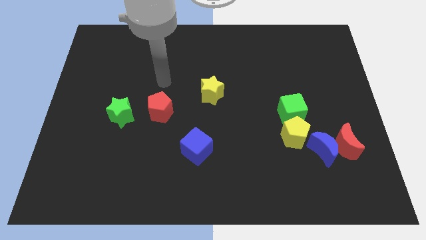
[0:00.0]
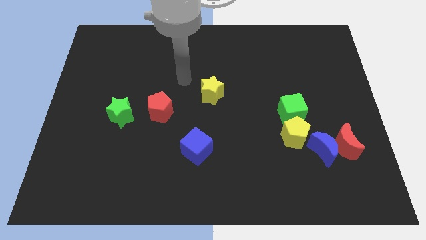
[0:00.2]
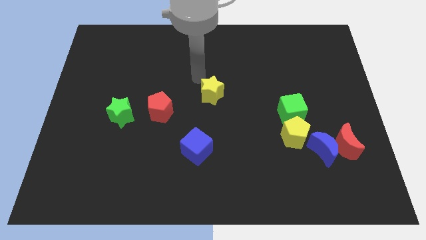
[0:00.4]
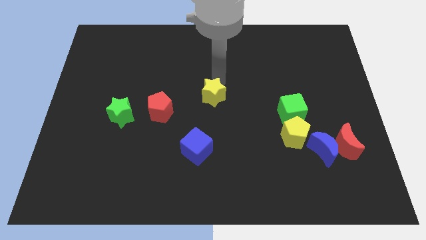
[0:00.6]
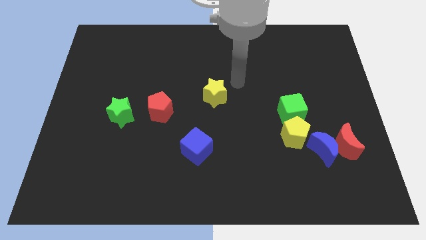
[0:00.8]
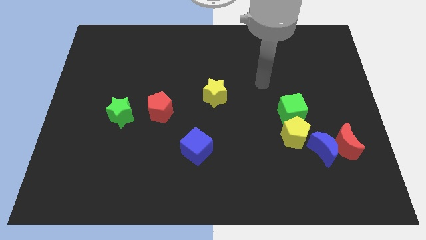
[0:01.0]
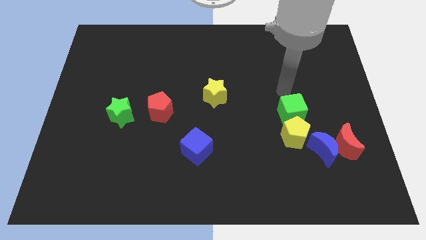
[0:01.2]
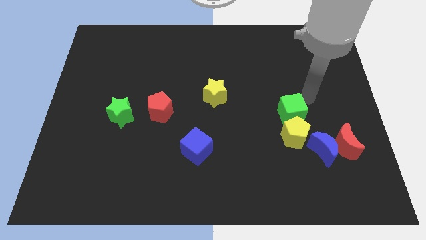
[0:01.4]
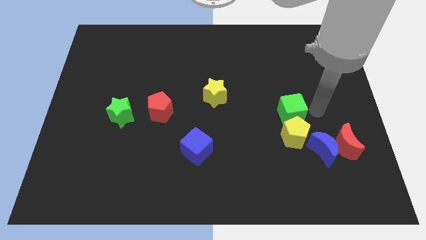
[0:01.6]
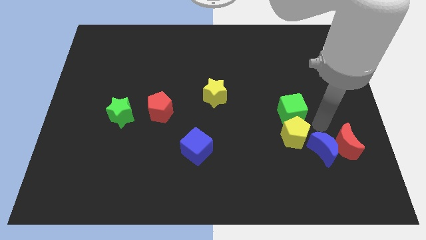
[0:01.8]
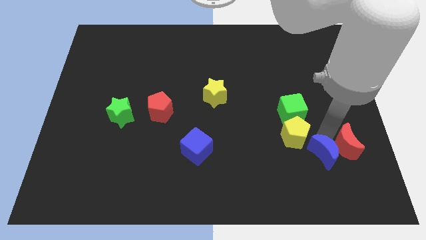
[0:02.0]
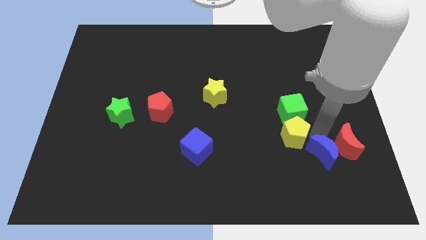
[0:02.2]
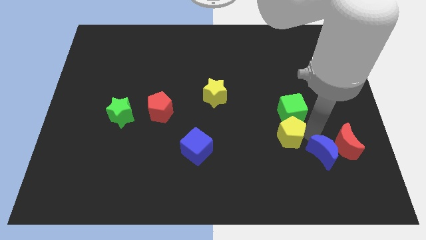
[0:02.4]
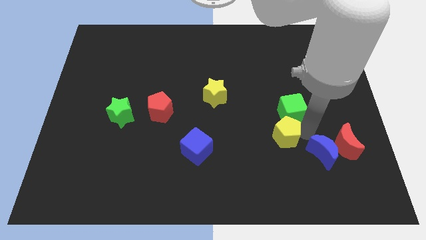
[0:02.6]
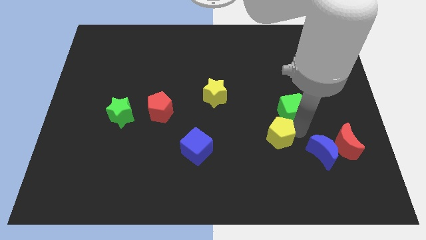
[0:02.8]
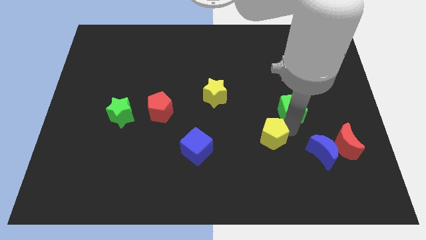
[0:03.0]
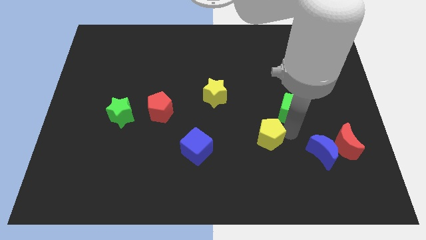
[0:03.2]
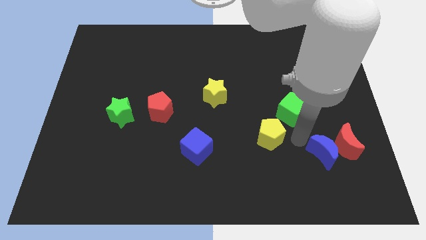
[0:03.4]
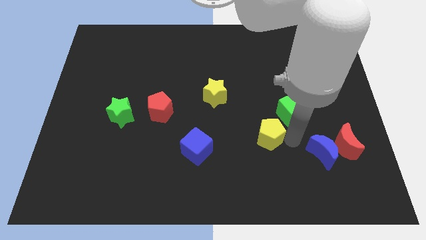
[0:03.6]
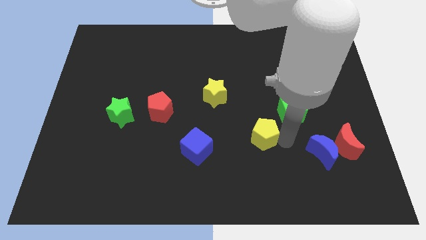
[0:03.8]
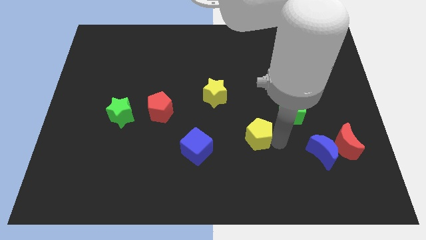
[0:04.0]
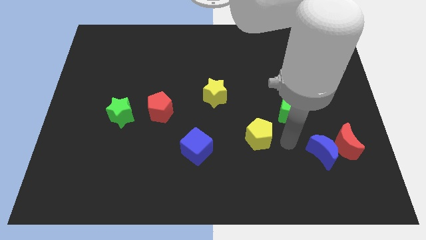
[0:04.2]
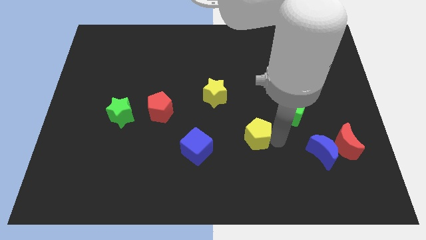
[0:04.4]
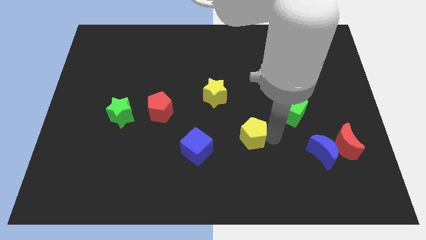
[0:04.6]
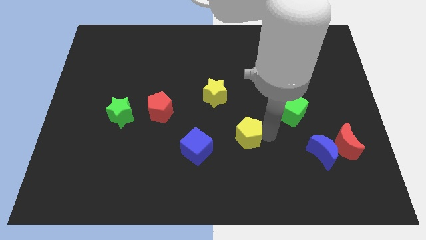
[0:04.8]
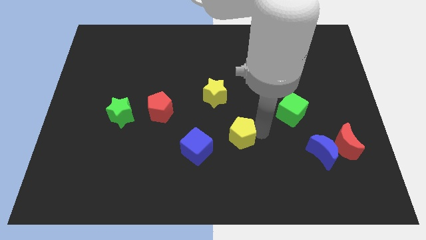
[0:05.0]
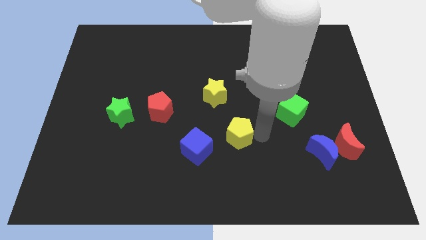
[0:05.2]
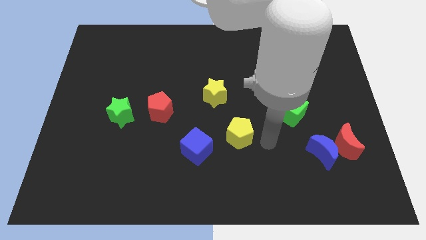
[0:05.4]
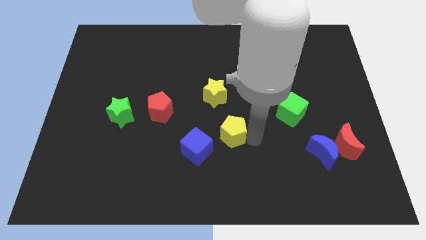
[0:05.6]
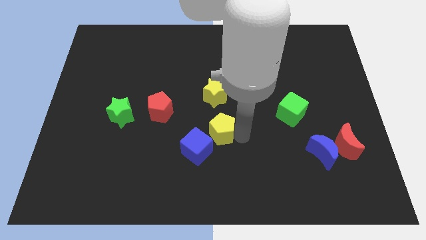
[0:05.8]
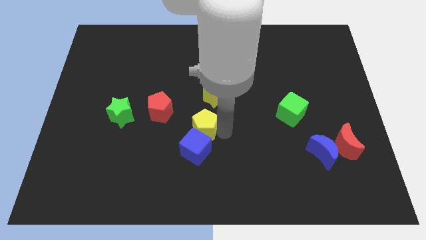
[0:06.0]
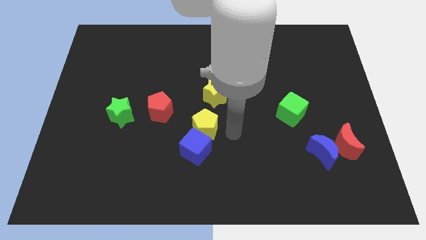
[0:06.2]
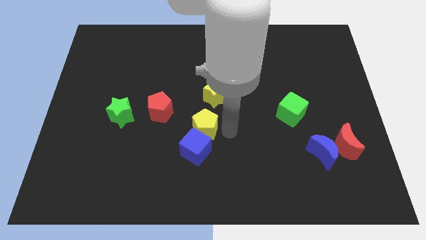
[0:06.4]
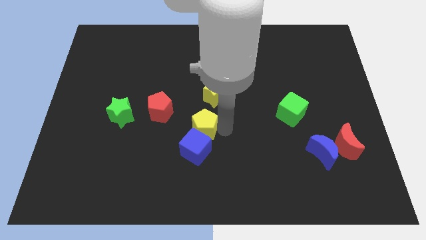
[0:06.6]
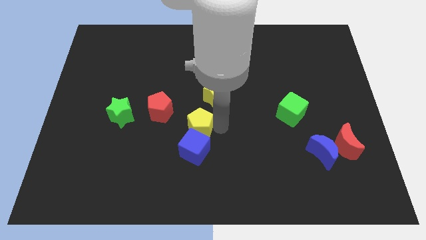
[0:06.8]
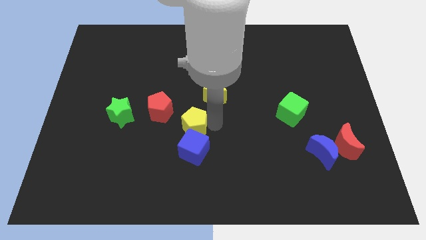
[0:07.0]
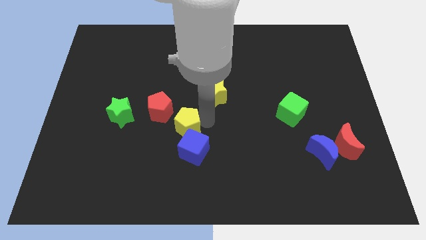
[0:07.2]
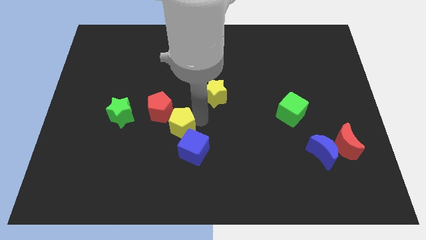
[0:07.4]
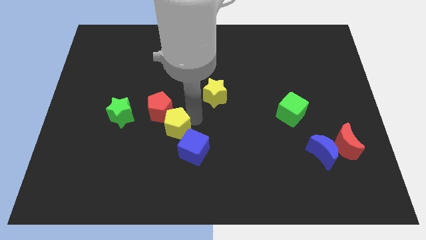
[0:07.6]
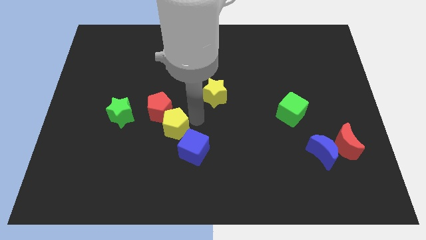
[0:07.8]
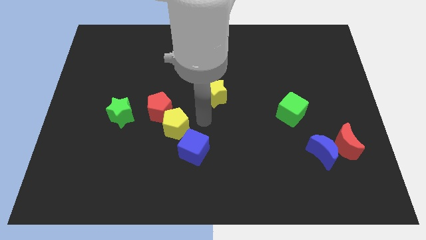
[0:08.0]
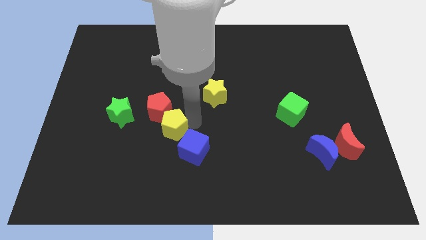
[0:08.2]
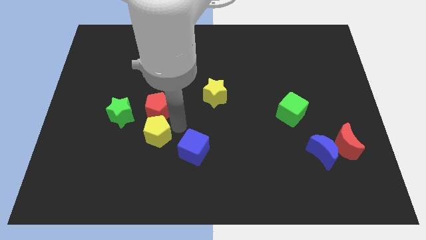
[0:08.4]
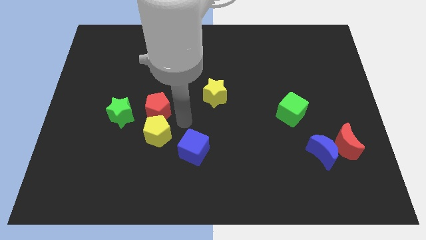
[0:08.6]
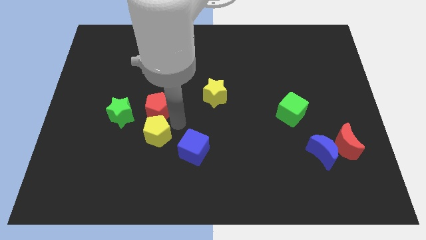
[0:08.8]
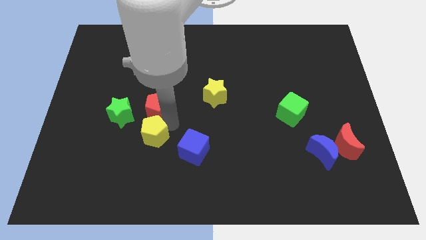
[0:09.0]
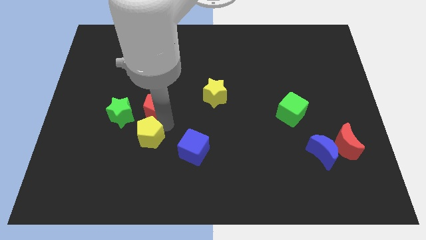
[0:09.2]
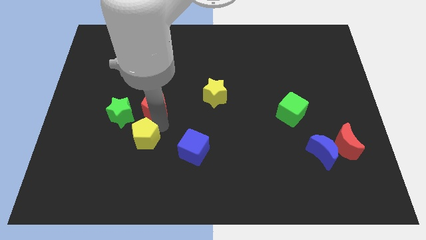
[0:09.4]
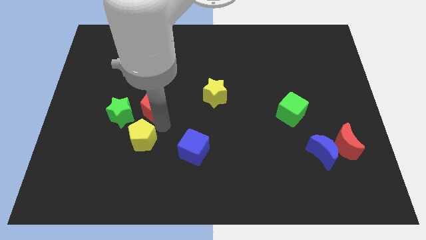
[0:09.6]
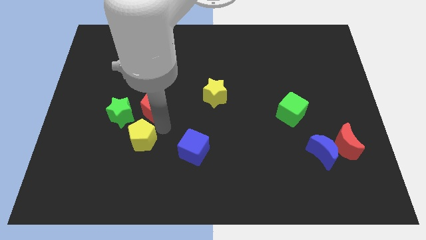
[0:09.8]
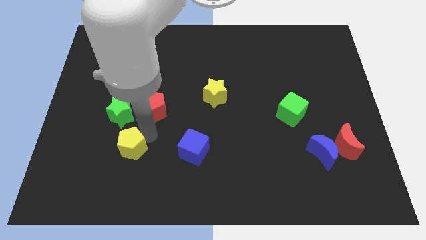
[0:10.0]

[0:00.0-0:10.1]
put the yellow pentagon below the green star

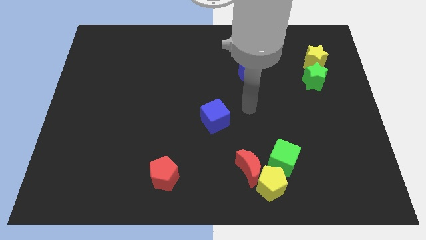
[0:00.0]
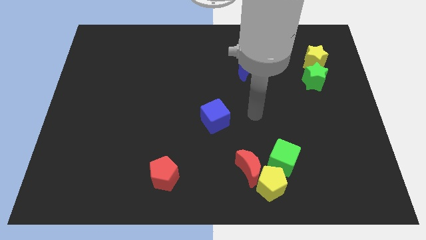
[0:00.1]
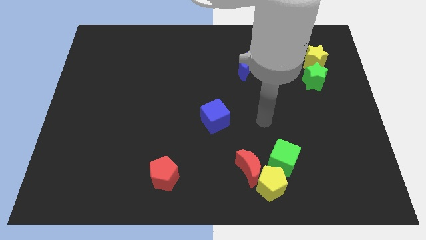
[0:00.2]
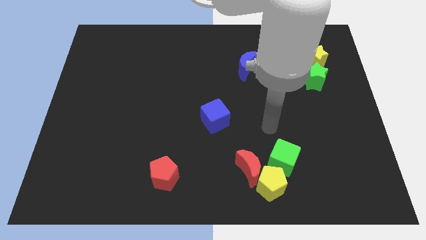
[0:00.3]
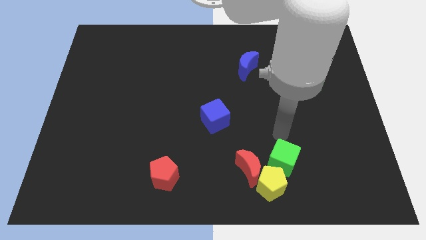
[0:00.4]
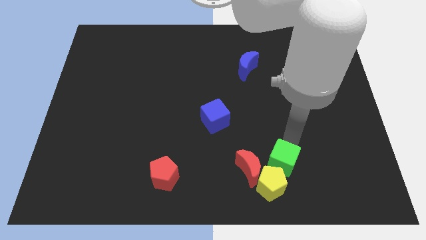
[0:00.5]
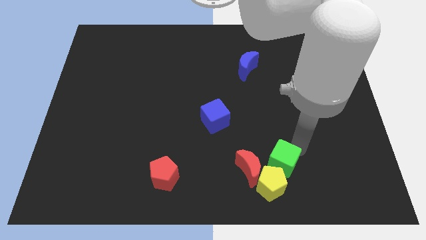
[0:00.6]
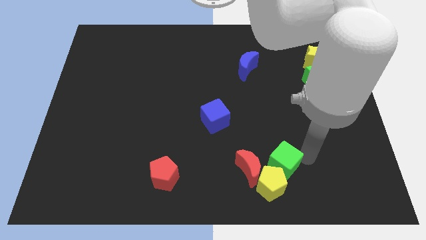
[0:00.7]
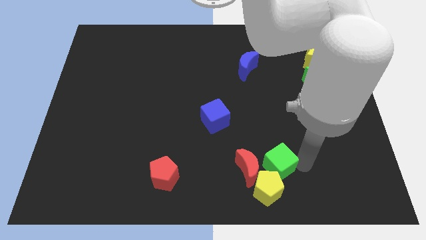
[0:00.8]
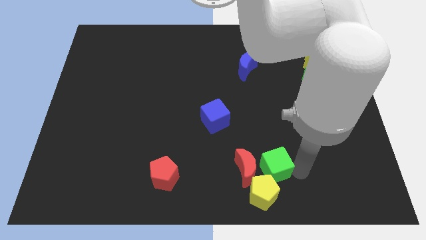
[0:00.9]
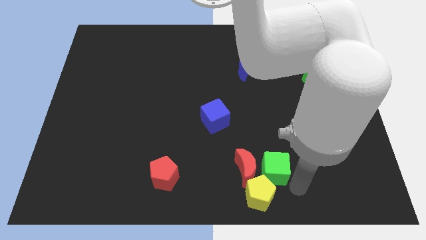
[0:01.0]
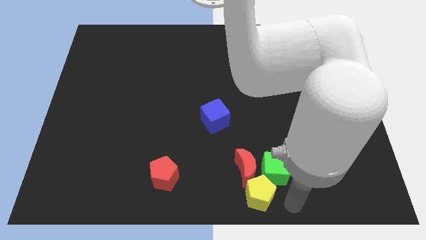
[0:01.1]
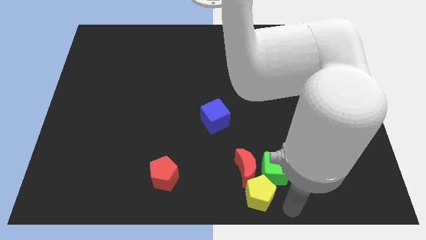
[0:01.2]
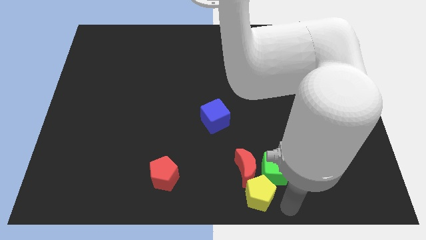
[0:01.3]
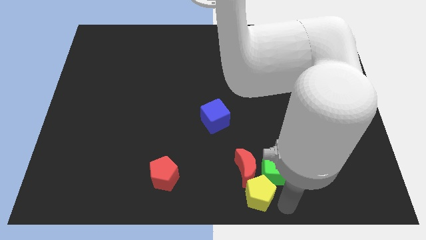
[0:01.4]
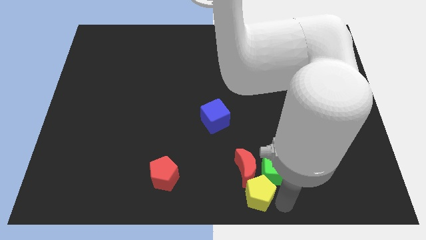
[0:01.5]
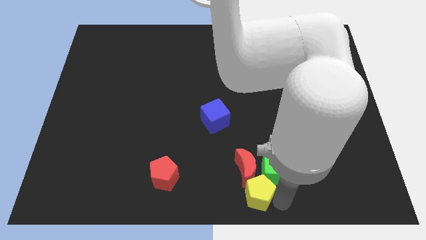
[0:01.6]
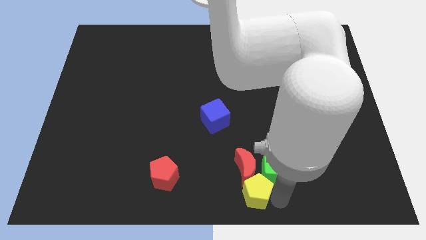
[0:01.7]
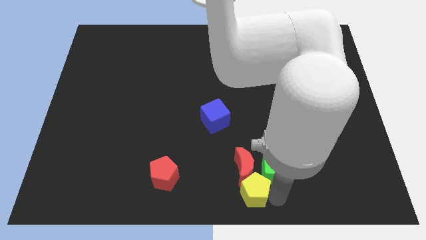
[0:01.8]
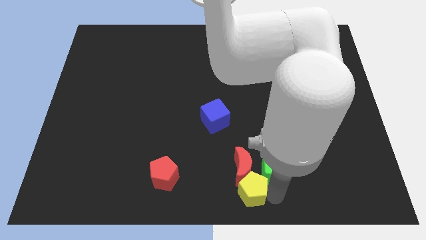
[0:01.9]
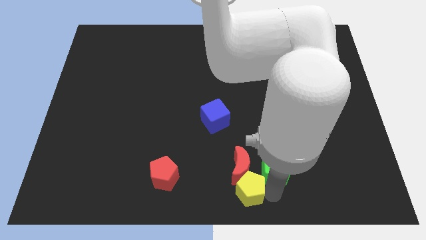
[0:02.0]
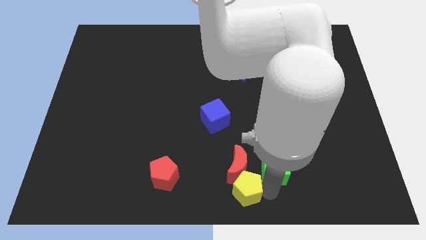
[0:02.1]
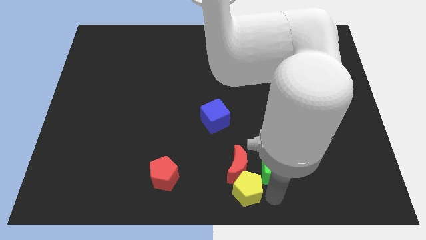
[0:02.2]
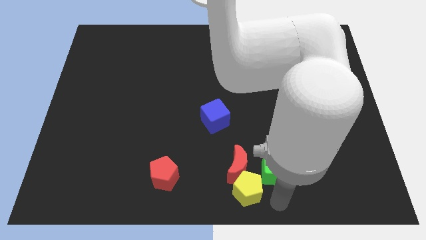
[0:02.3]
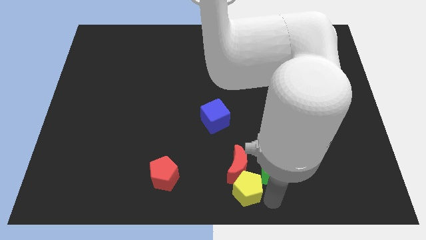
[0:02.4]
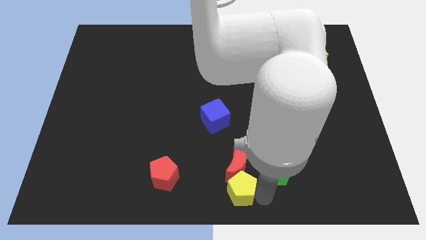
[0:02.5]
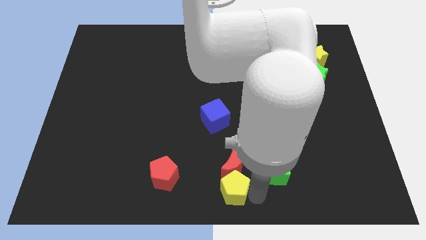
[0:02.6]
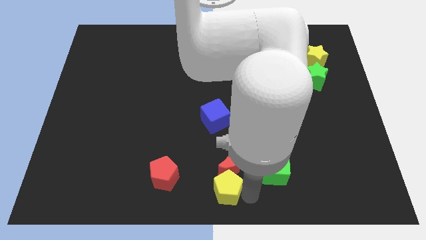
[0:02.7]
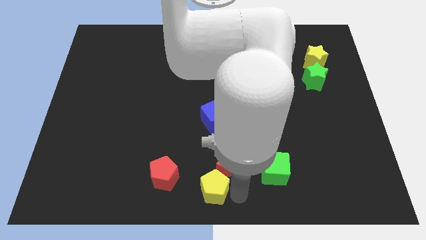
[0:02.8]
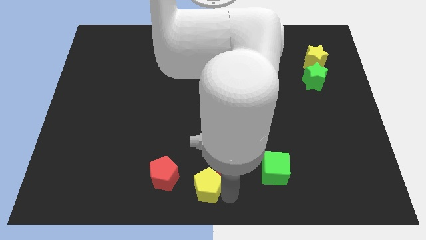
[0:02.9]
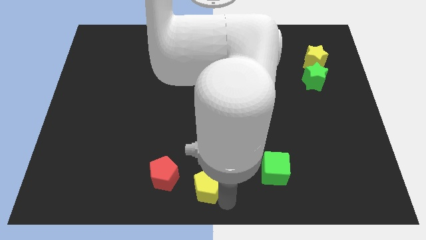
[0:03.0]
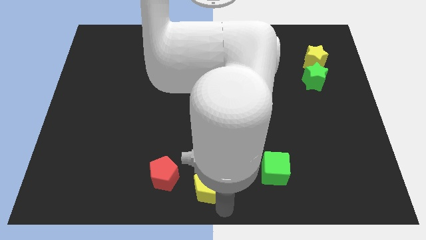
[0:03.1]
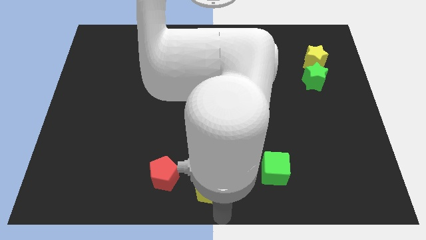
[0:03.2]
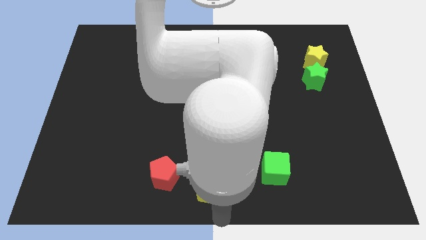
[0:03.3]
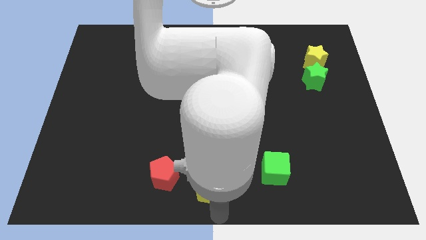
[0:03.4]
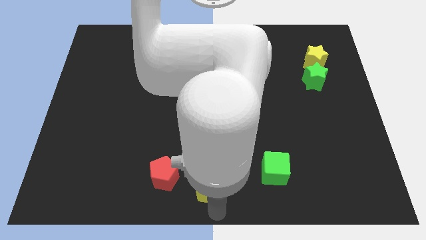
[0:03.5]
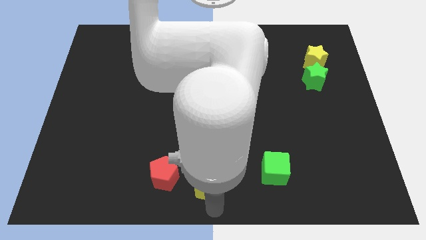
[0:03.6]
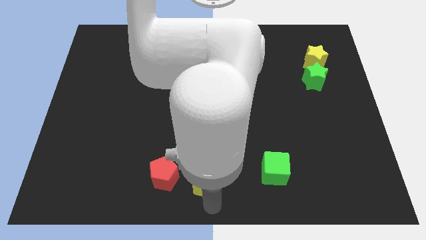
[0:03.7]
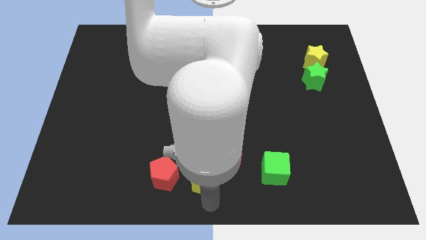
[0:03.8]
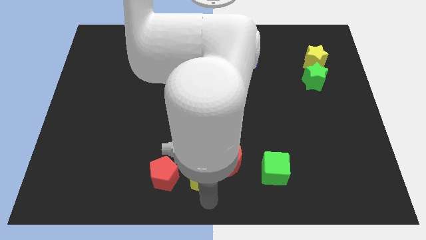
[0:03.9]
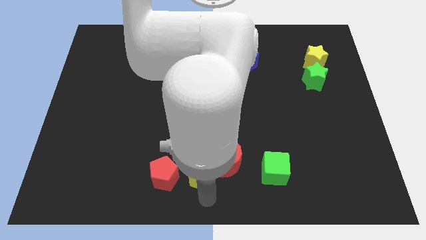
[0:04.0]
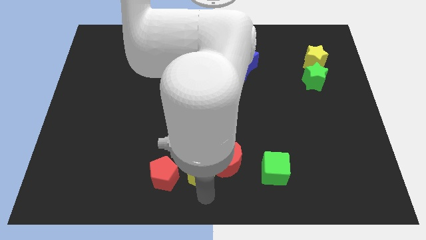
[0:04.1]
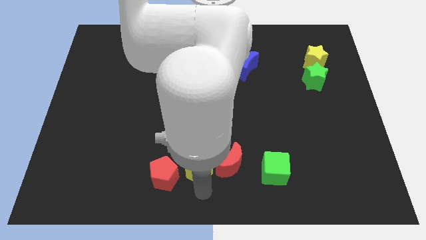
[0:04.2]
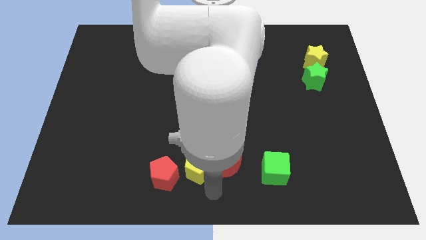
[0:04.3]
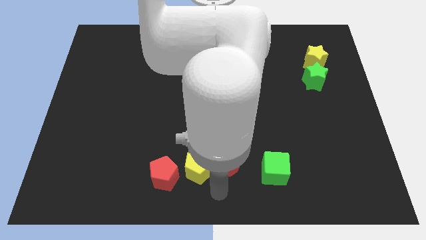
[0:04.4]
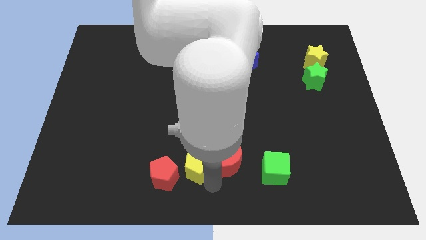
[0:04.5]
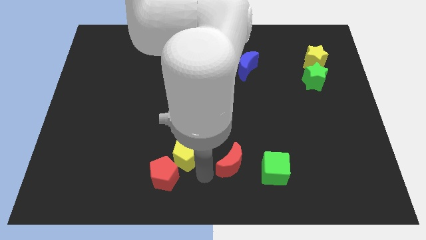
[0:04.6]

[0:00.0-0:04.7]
move the yellow pentagon to the top side of the red pentagon
